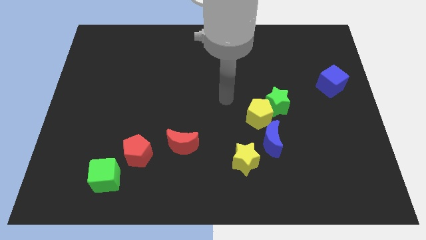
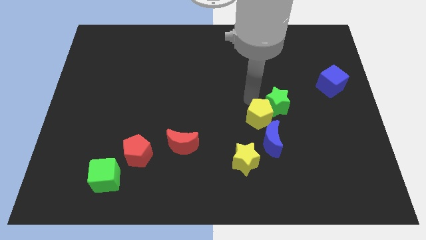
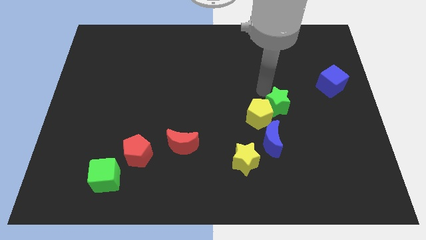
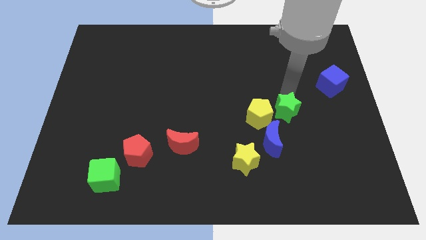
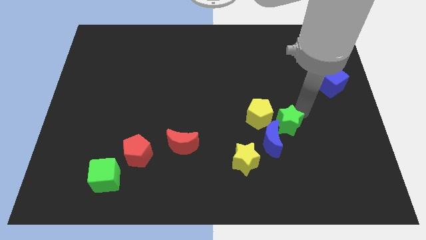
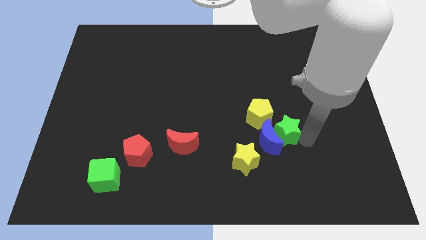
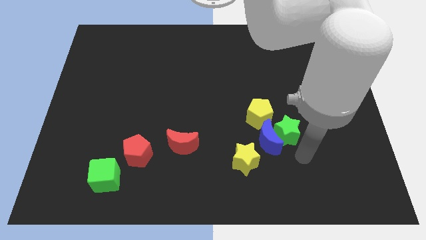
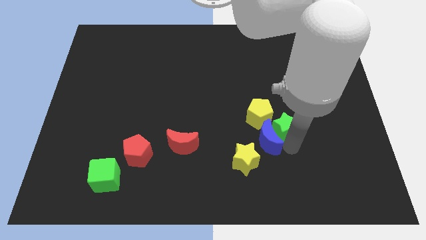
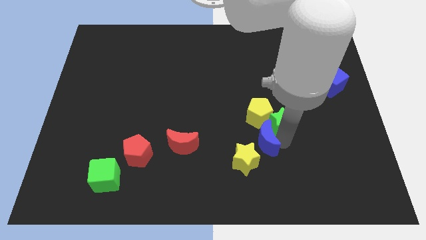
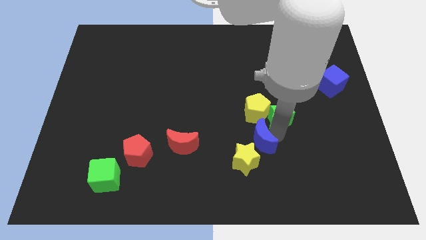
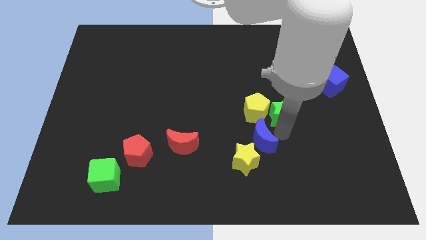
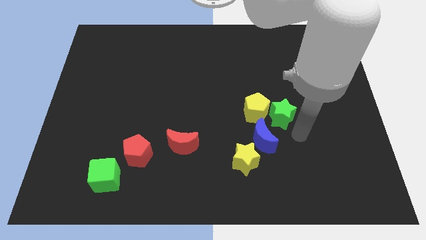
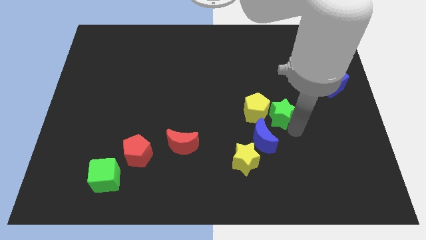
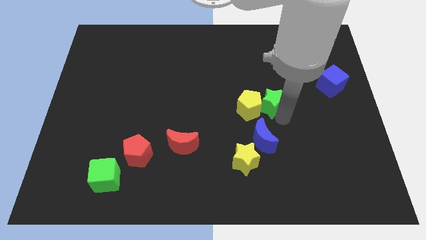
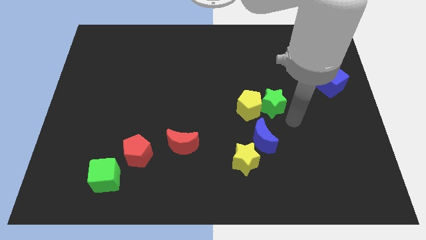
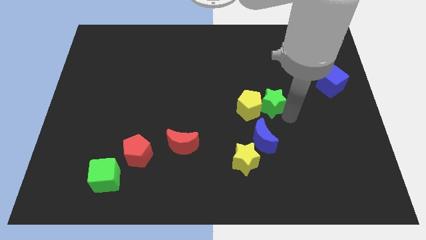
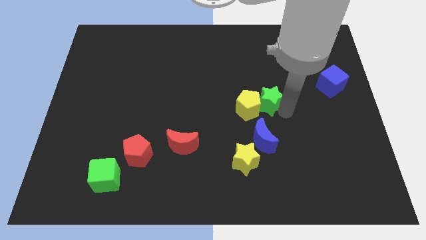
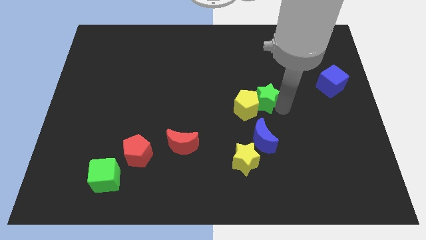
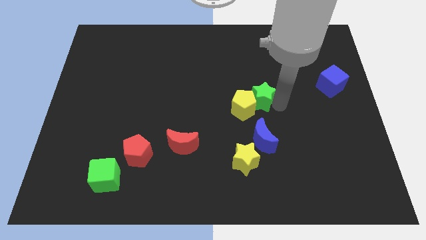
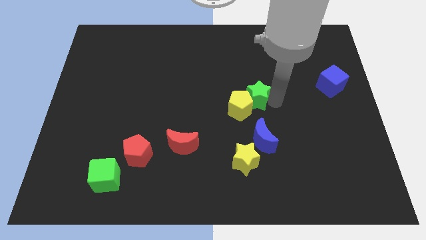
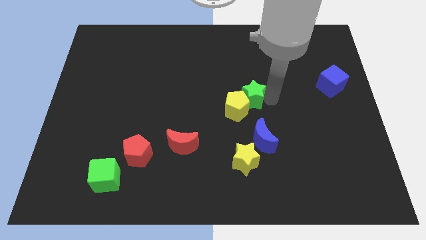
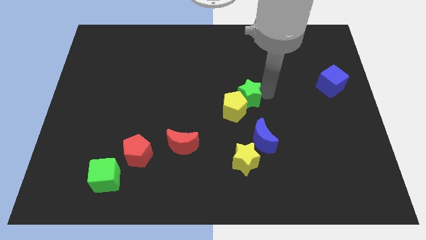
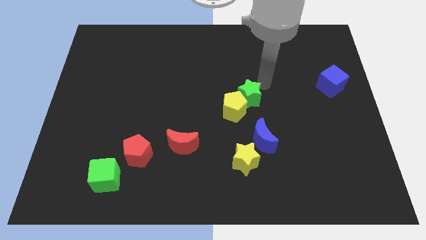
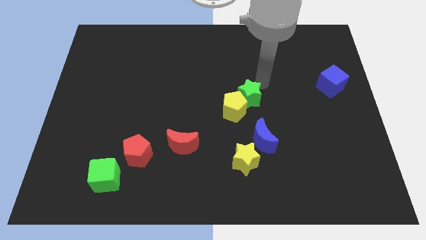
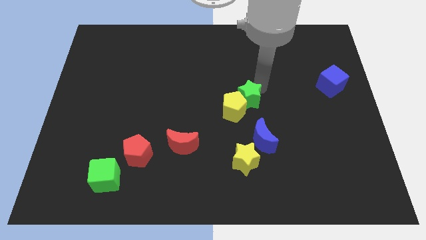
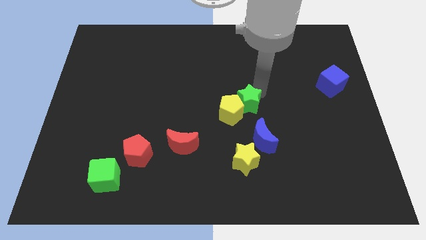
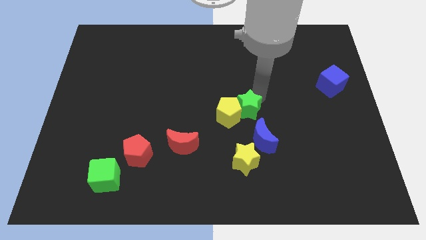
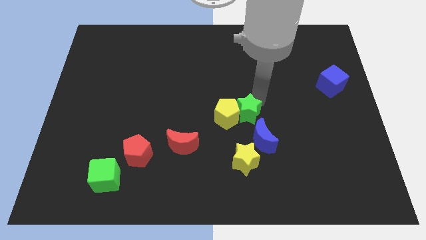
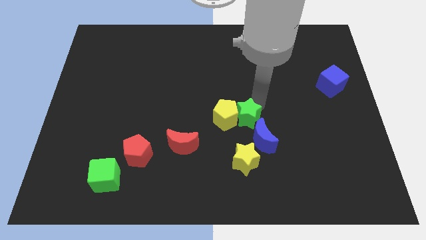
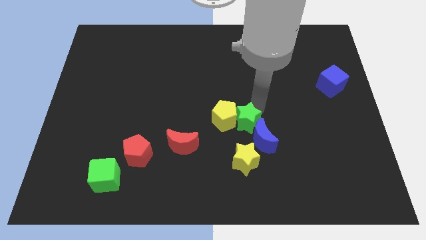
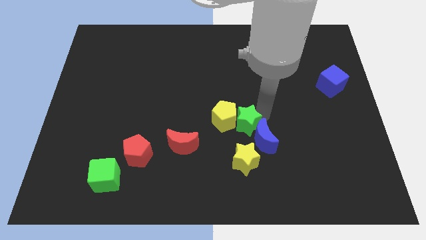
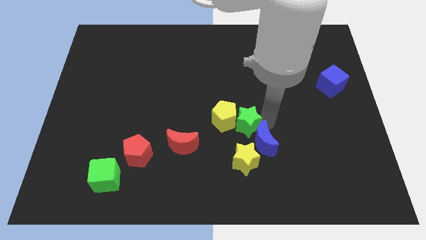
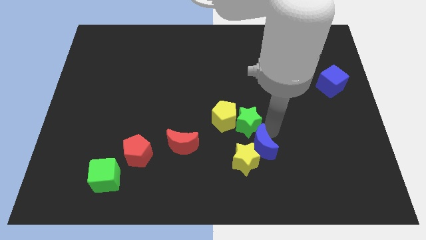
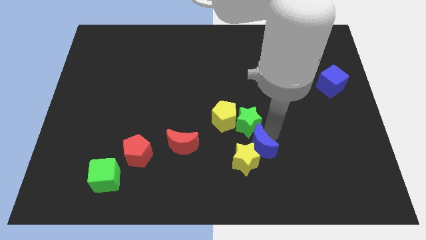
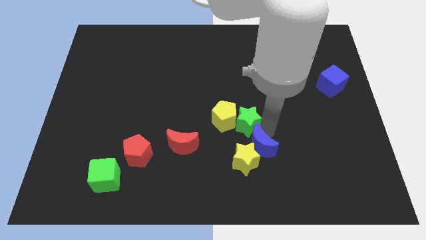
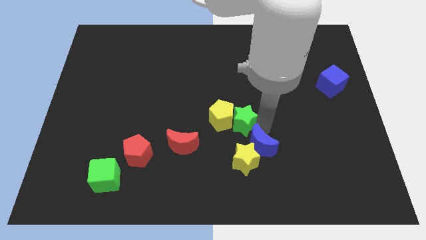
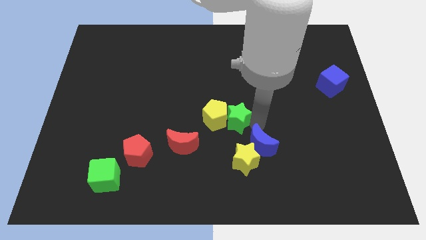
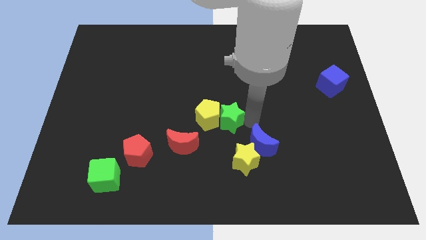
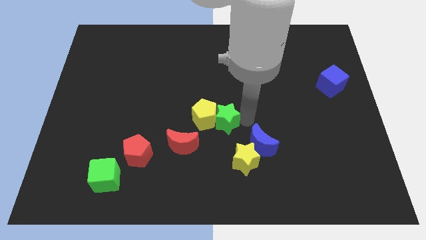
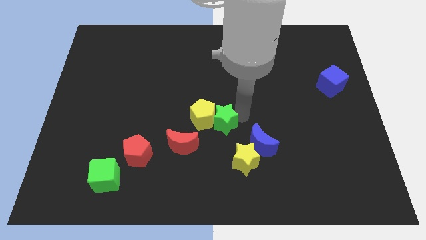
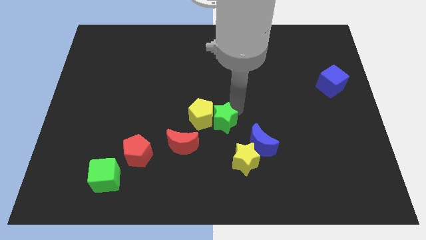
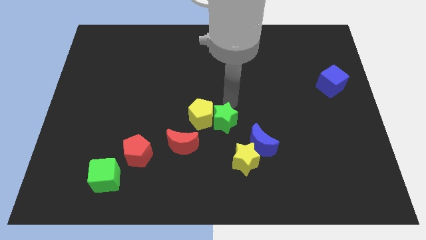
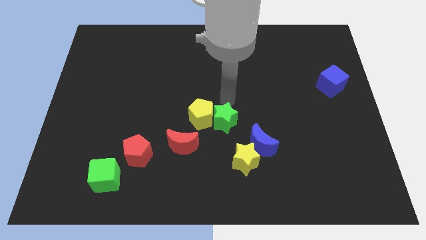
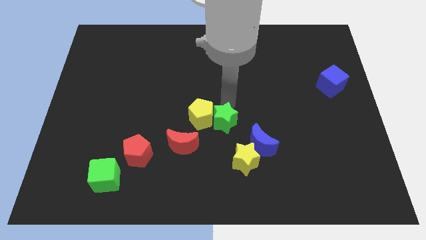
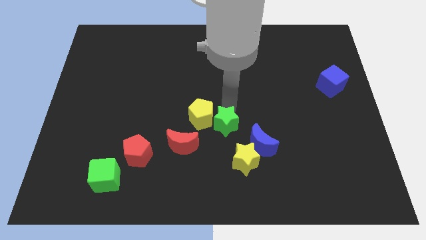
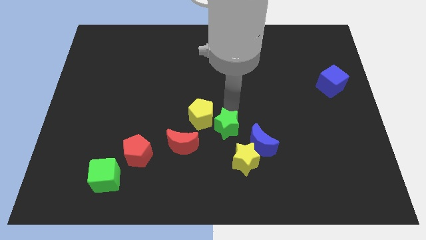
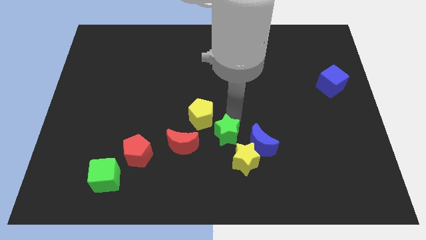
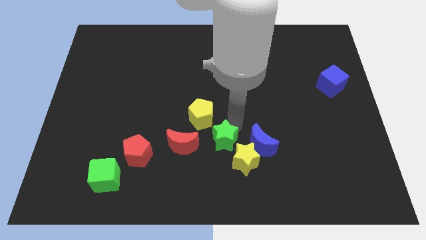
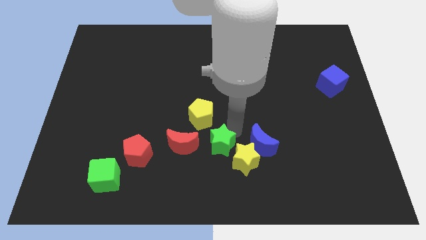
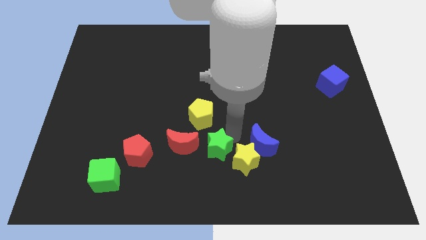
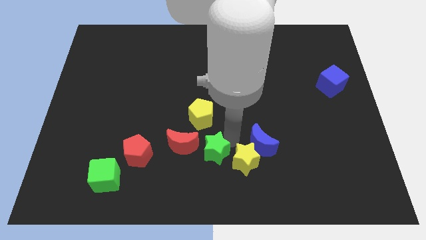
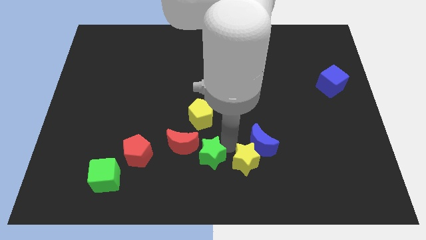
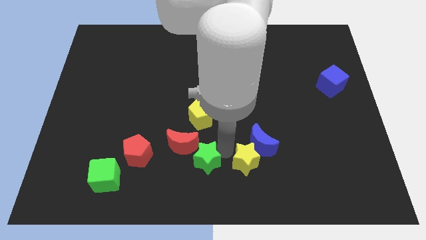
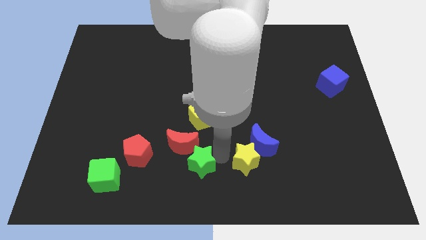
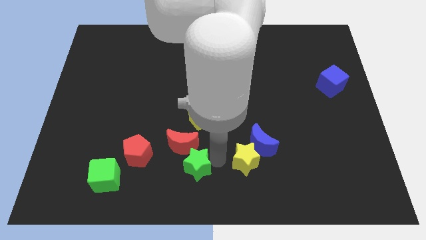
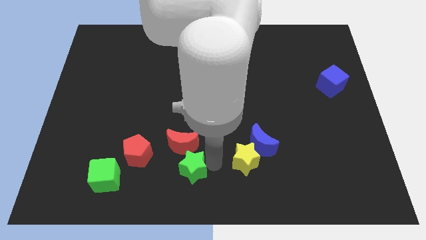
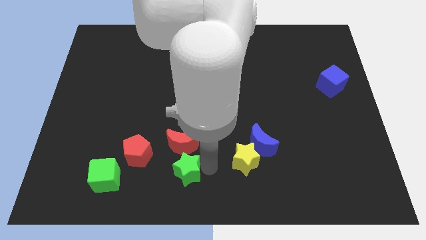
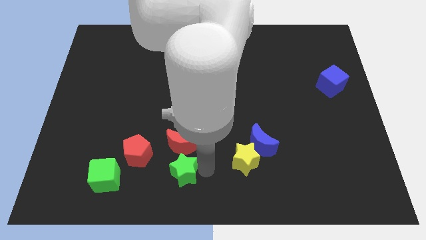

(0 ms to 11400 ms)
move the green star to the bottom left side of the red moon

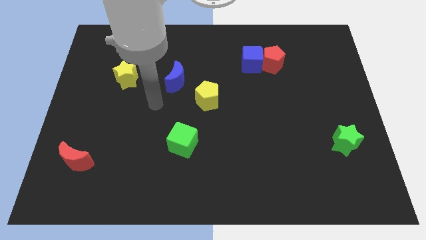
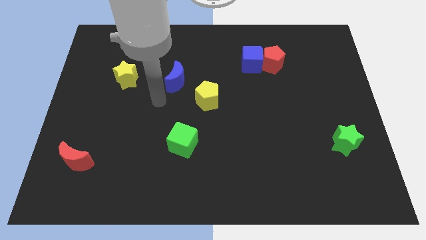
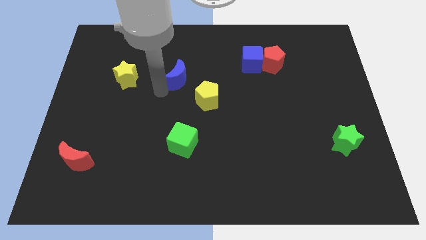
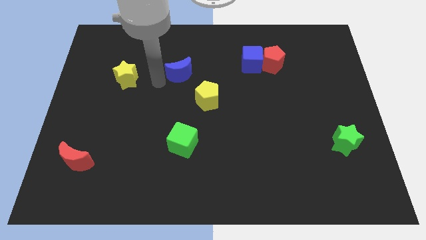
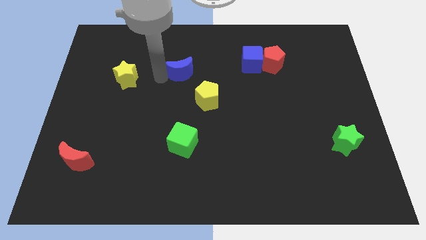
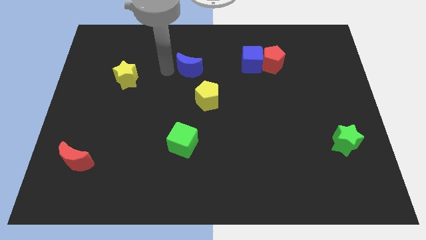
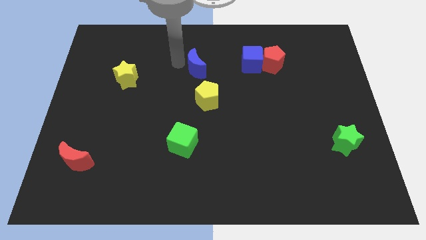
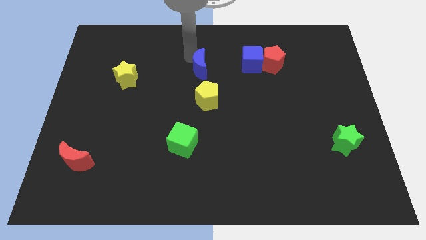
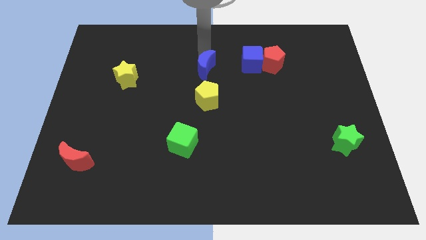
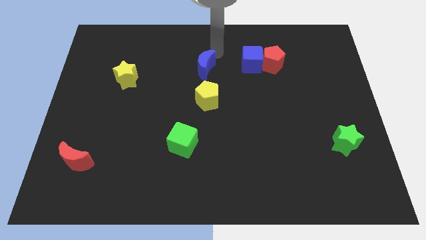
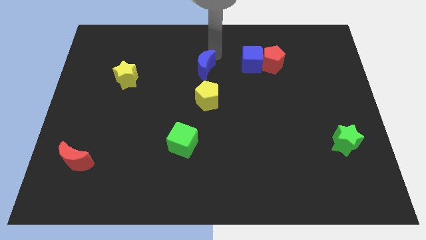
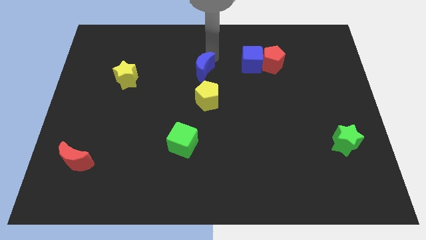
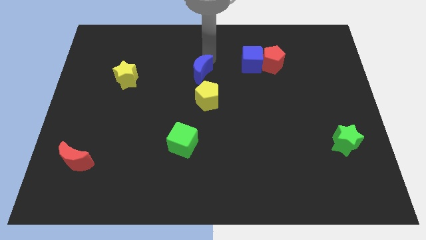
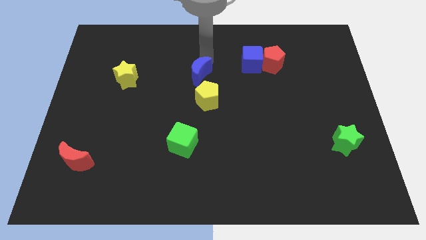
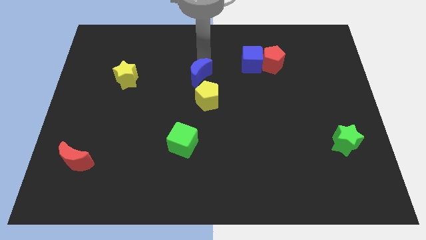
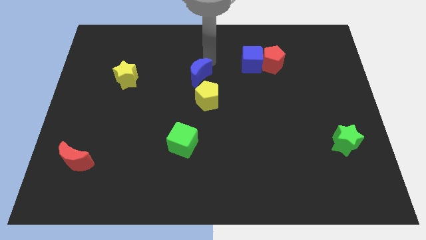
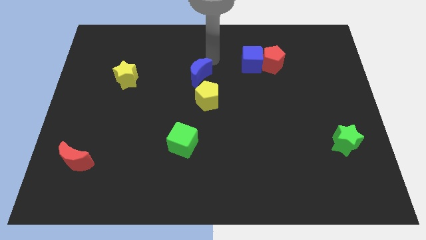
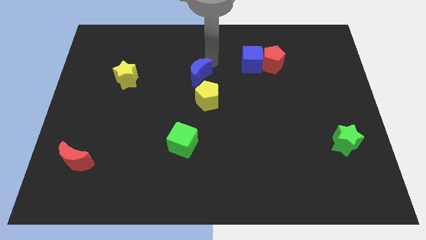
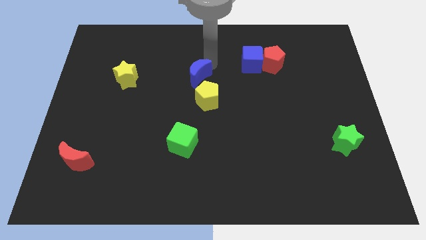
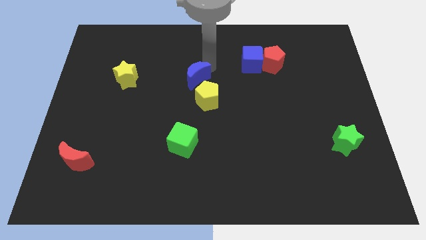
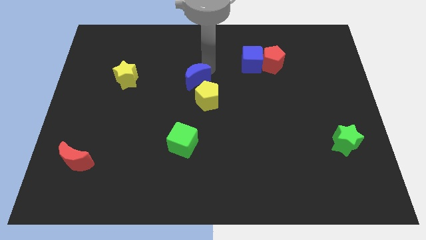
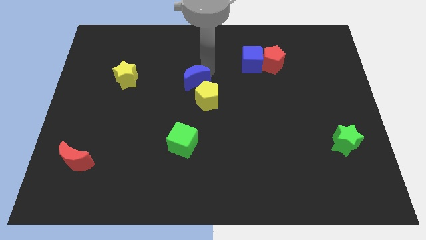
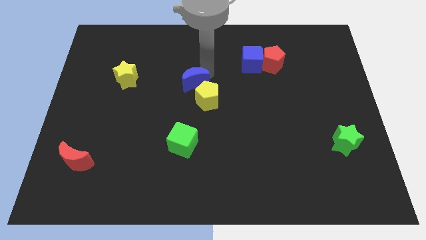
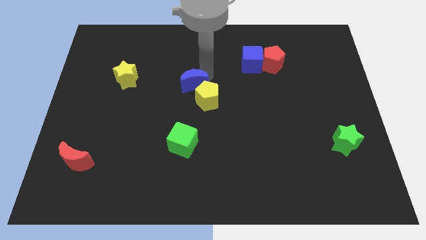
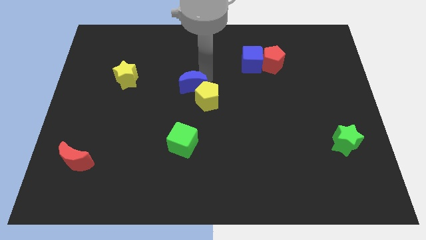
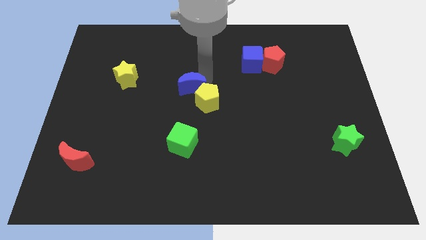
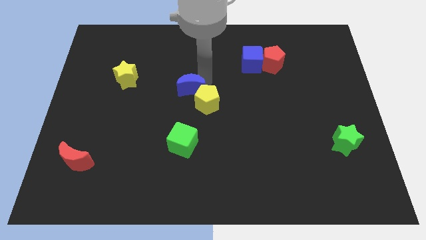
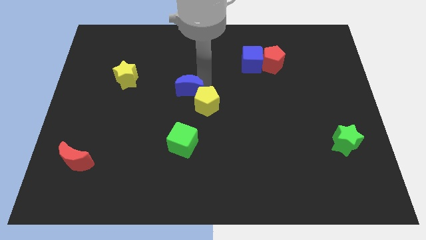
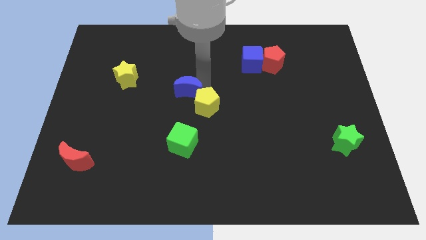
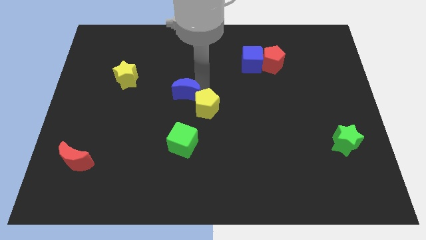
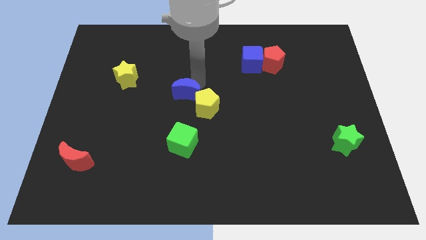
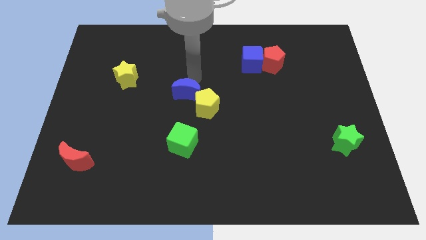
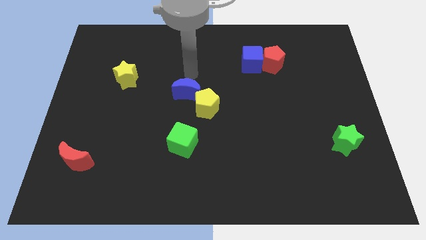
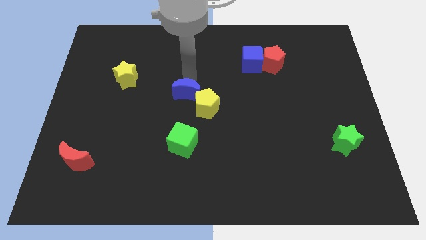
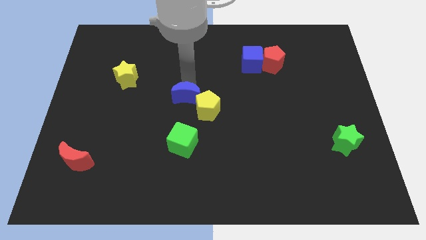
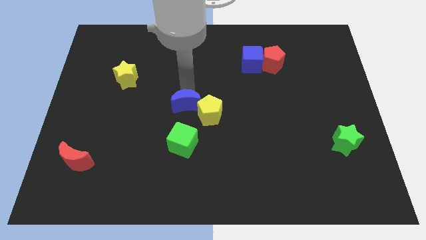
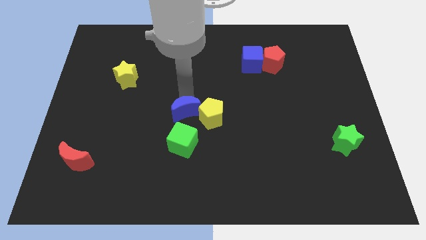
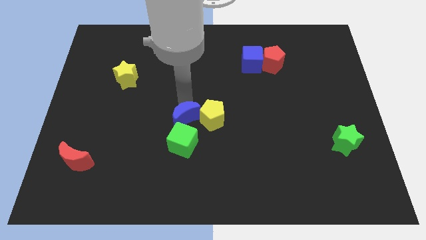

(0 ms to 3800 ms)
push the blue moon to the bottom left side of the yellow pentagon
